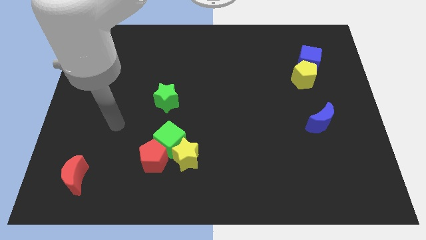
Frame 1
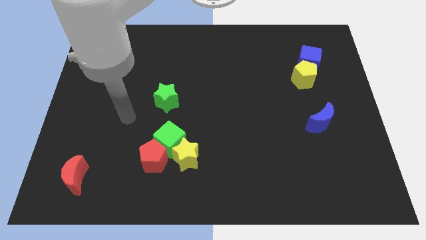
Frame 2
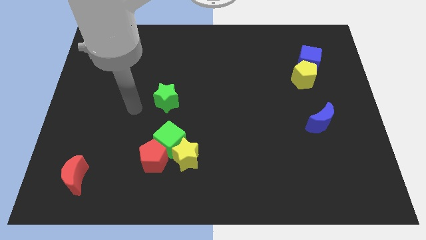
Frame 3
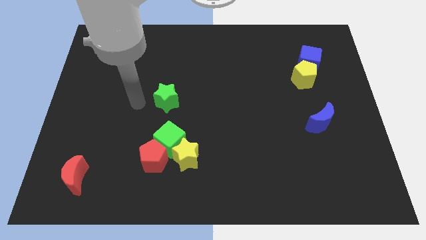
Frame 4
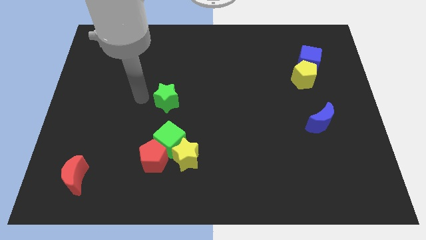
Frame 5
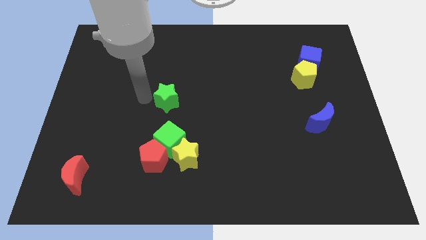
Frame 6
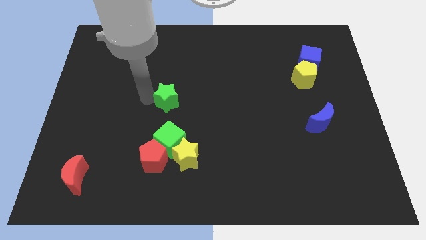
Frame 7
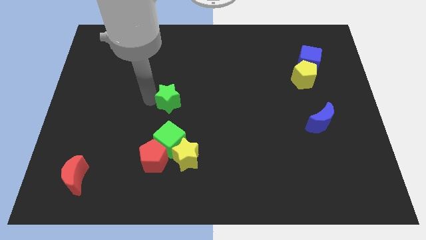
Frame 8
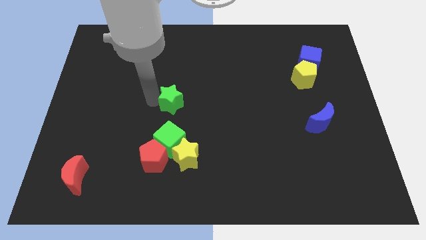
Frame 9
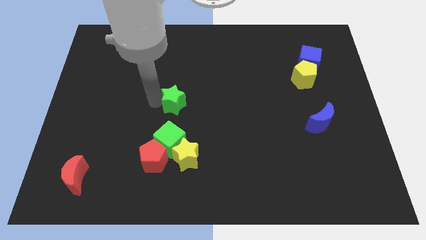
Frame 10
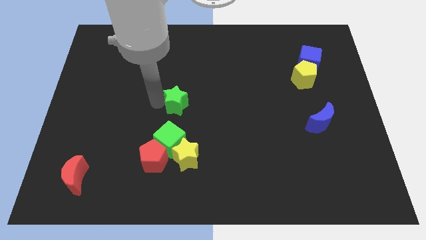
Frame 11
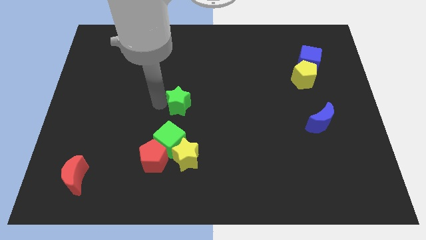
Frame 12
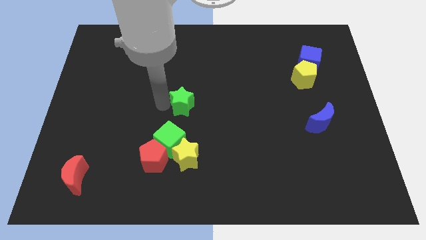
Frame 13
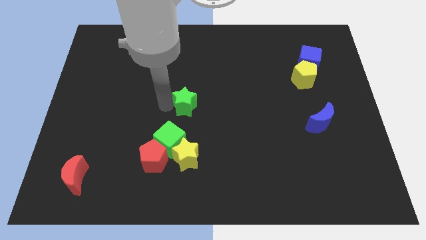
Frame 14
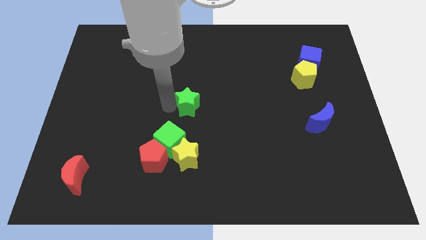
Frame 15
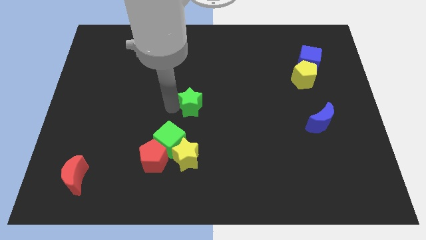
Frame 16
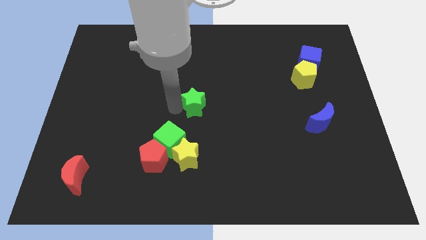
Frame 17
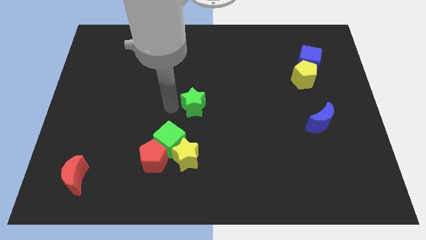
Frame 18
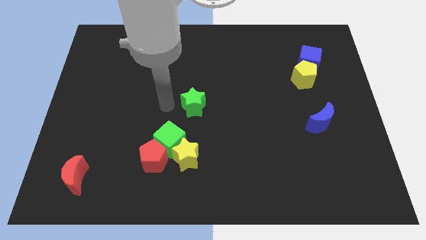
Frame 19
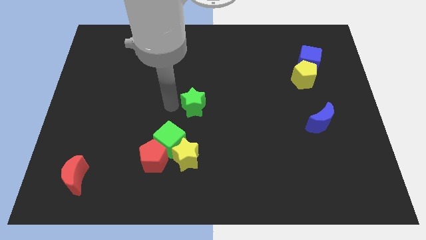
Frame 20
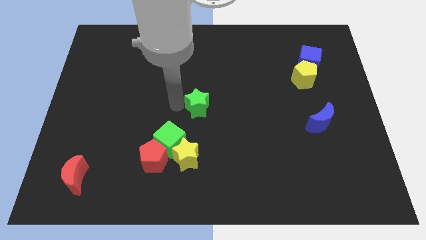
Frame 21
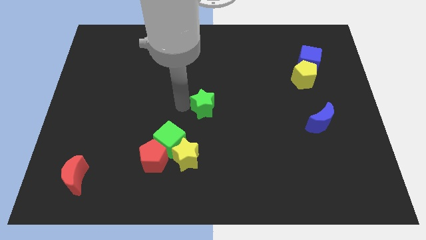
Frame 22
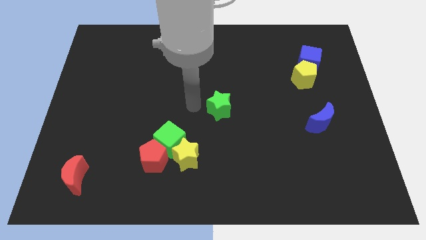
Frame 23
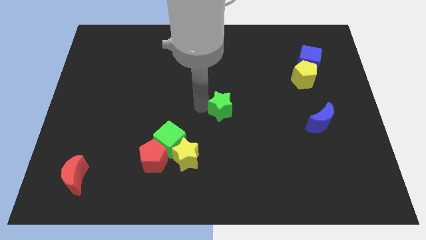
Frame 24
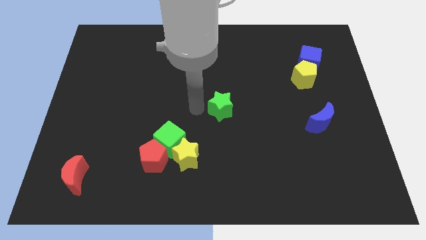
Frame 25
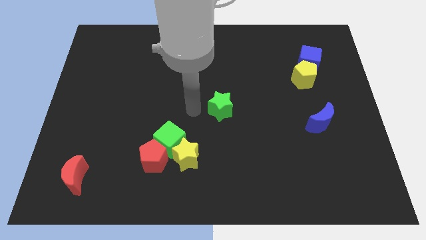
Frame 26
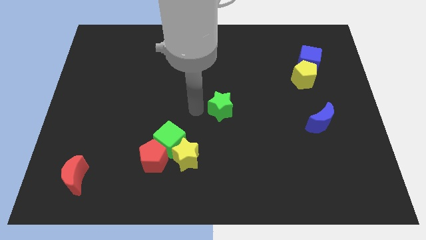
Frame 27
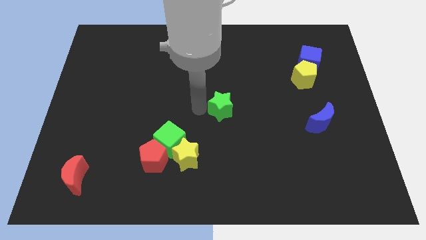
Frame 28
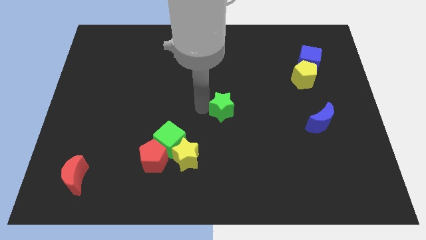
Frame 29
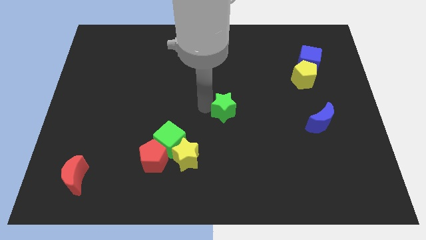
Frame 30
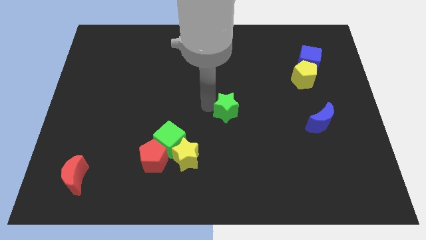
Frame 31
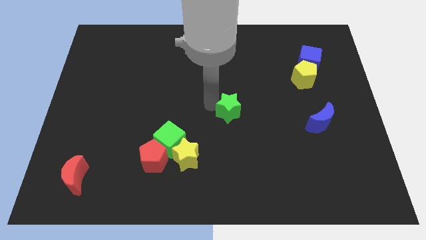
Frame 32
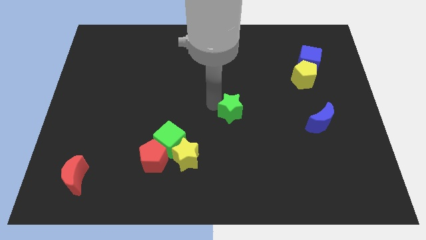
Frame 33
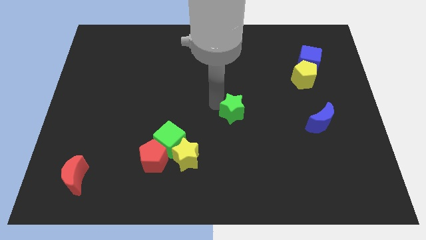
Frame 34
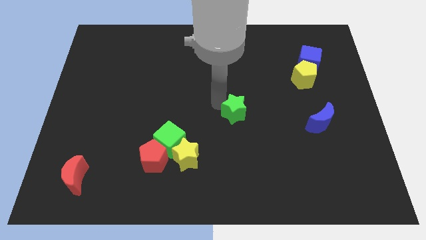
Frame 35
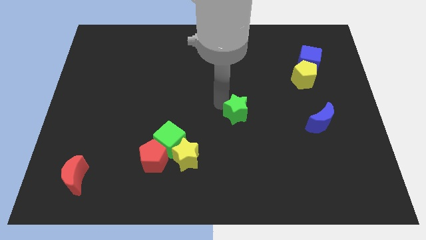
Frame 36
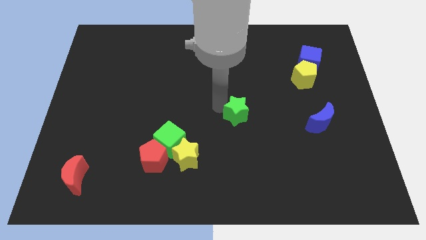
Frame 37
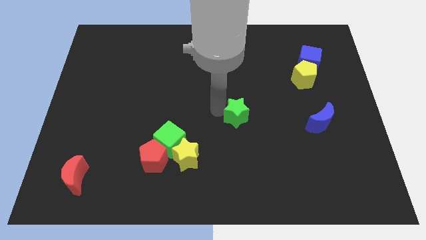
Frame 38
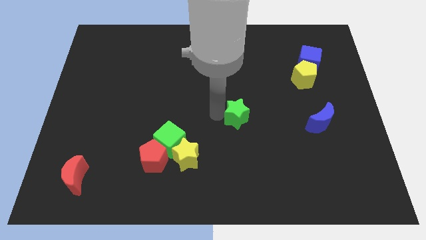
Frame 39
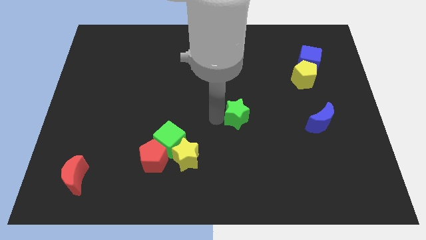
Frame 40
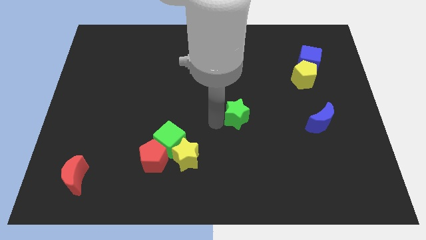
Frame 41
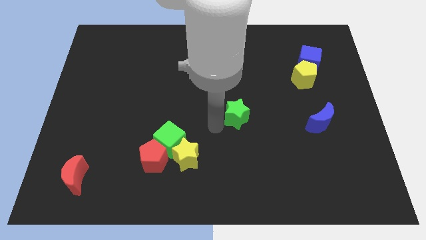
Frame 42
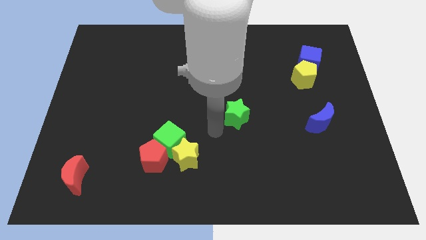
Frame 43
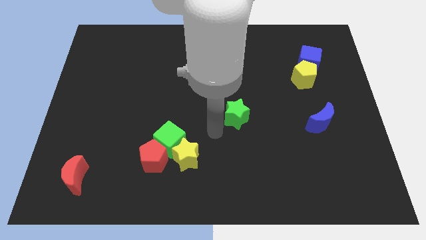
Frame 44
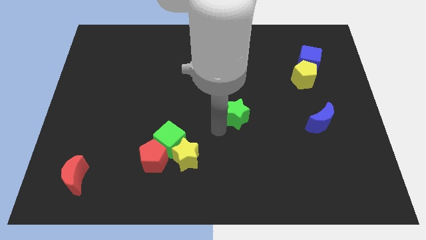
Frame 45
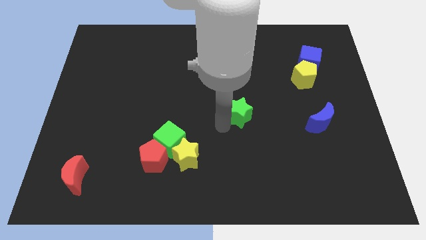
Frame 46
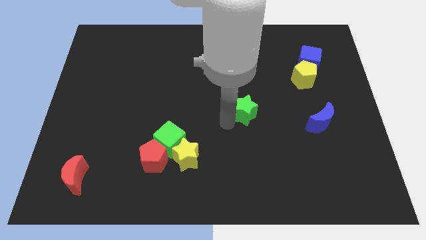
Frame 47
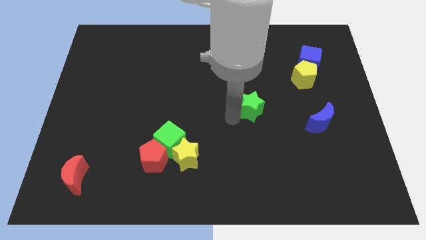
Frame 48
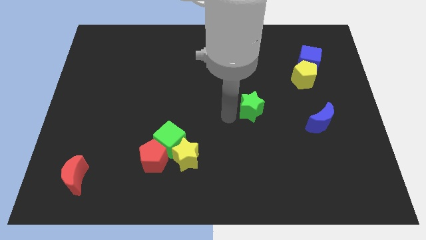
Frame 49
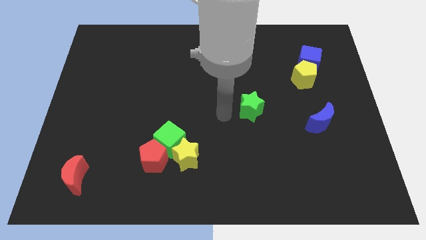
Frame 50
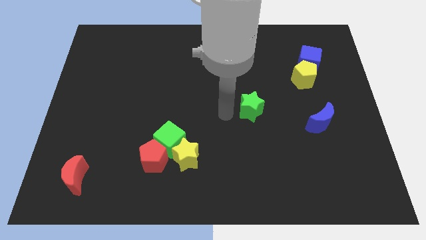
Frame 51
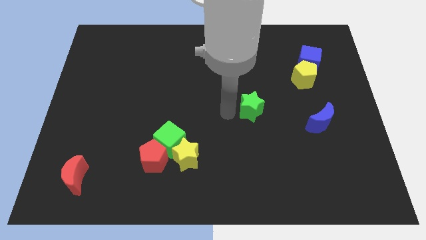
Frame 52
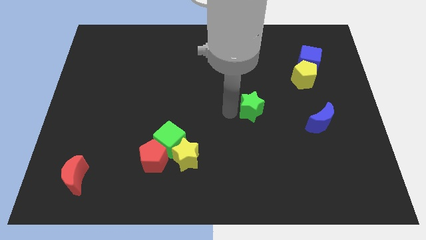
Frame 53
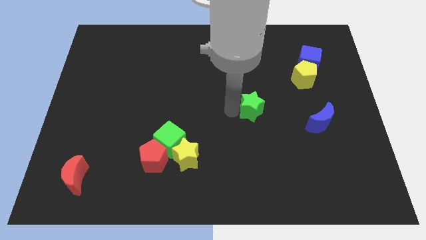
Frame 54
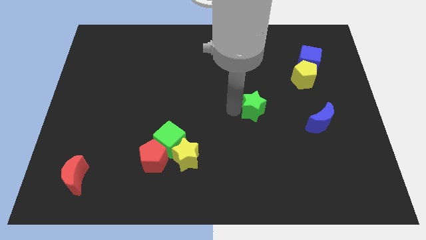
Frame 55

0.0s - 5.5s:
move the green star to the right

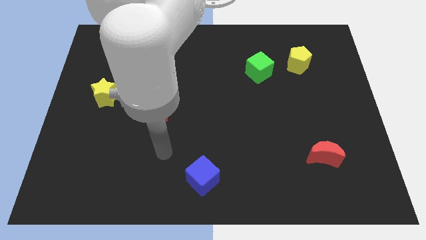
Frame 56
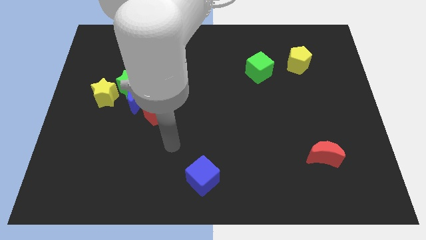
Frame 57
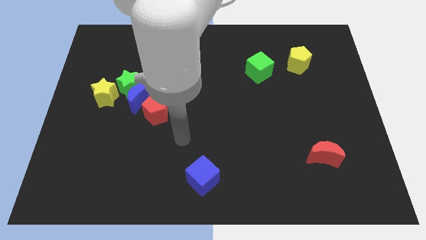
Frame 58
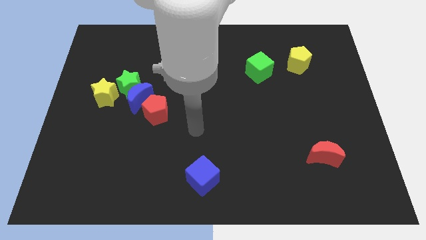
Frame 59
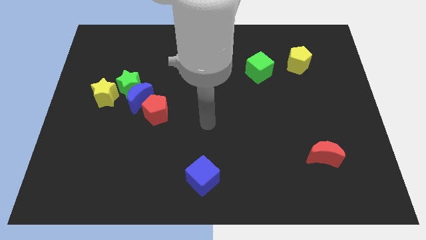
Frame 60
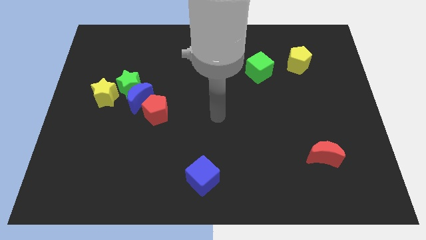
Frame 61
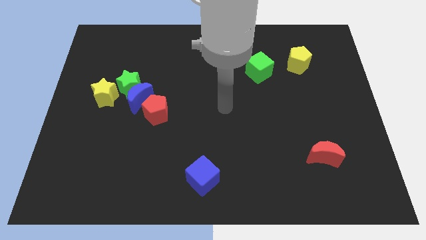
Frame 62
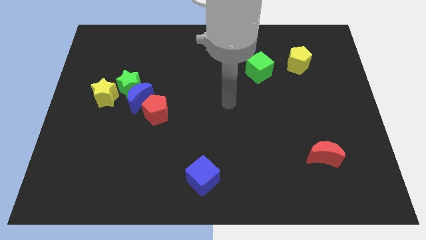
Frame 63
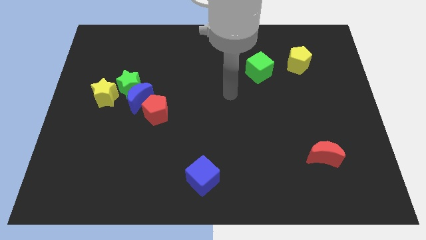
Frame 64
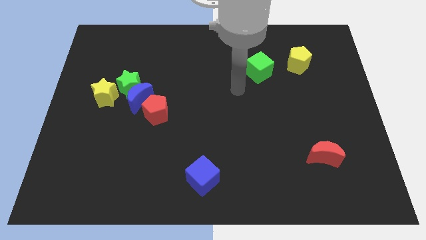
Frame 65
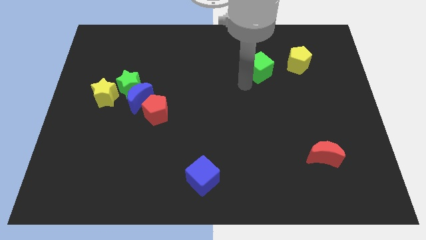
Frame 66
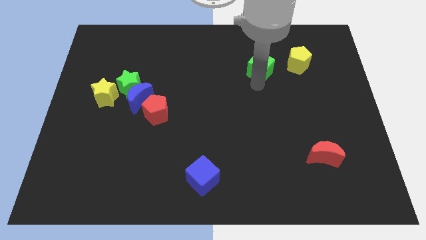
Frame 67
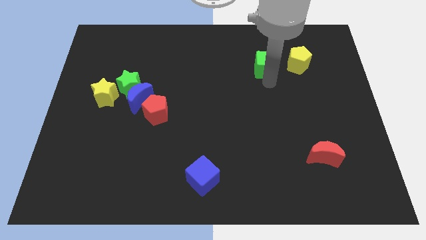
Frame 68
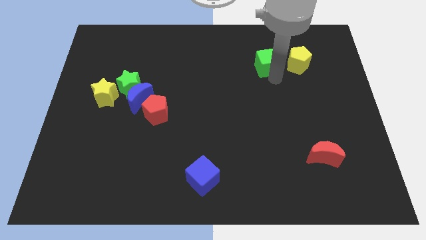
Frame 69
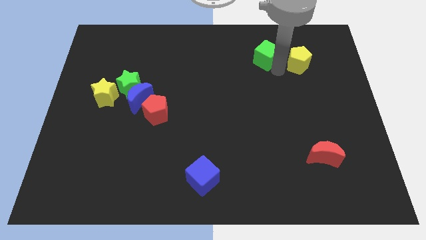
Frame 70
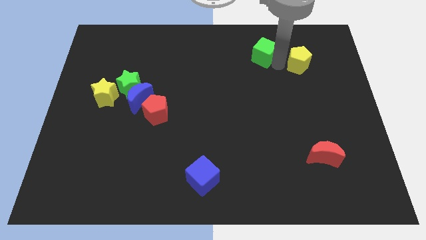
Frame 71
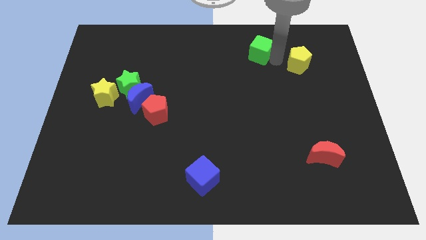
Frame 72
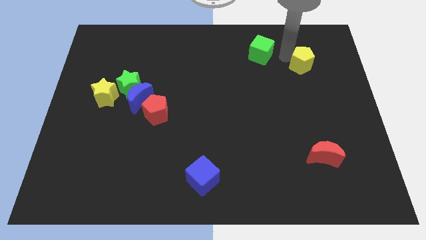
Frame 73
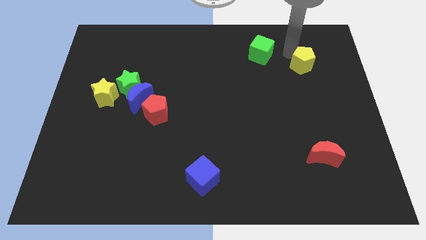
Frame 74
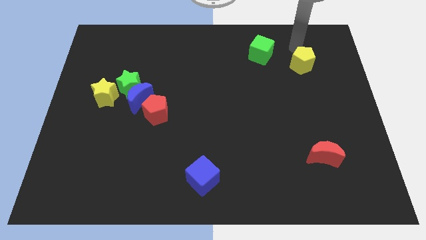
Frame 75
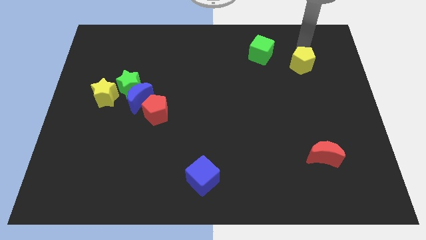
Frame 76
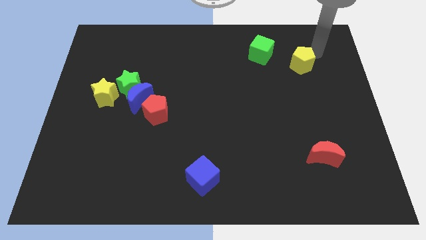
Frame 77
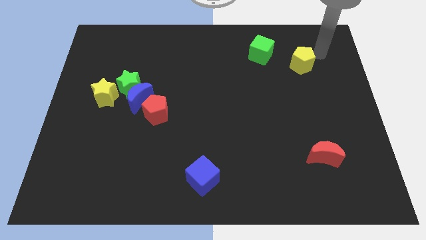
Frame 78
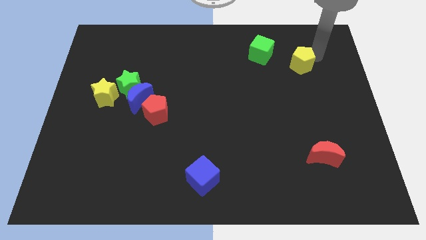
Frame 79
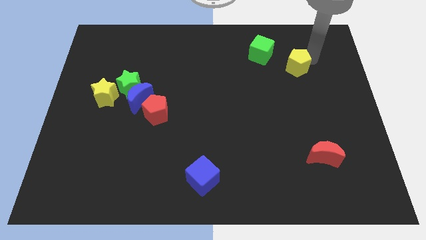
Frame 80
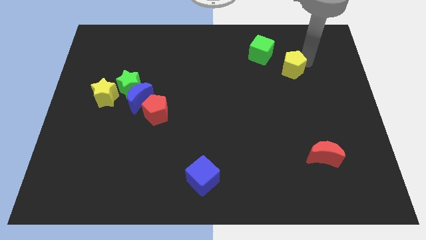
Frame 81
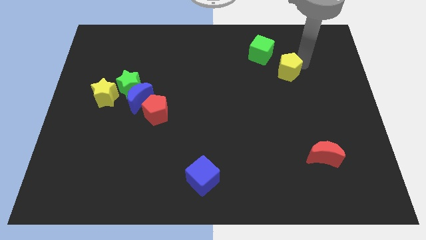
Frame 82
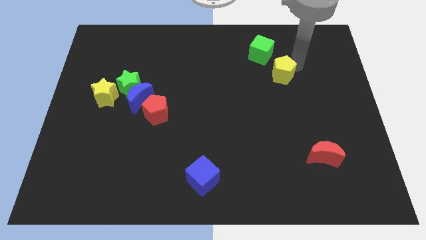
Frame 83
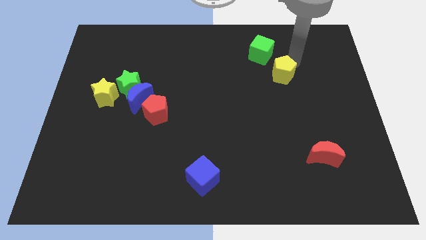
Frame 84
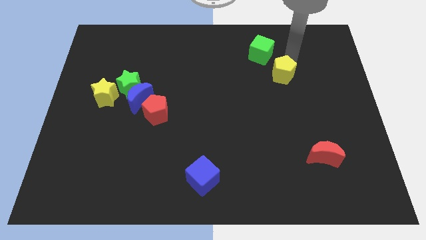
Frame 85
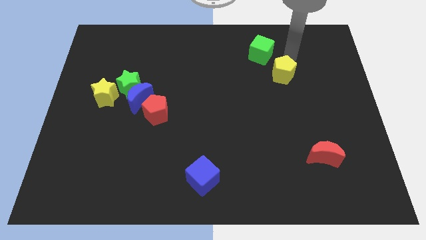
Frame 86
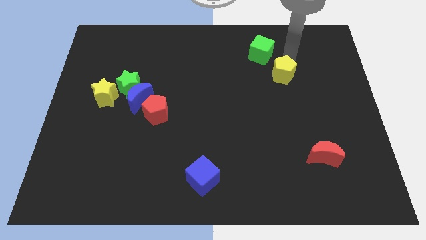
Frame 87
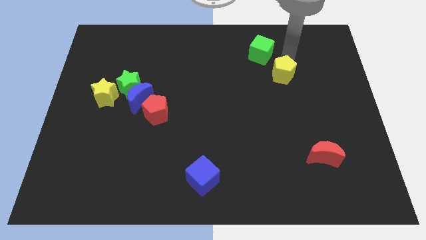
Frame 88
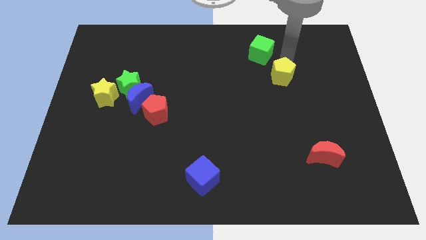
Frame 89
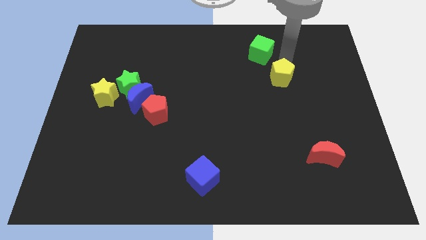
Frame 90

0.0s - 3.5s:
push the yellow pentagon downwards and left a bit
